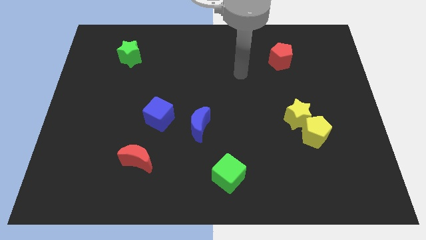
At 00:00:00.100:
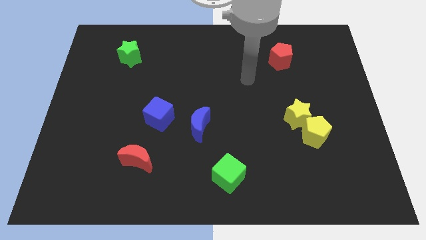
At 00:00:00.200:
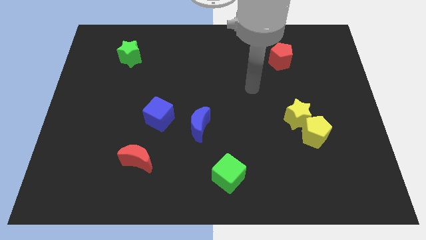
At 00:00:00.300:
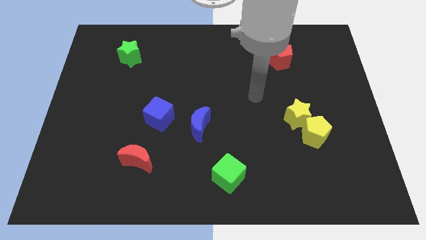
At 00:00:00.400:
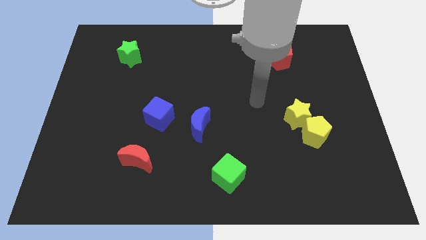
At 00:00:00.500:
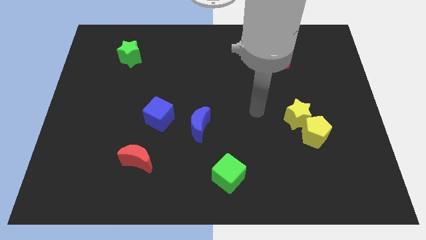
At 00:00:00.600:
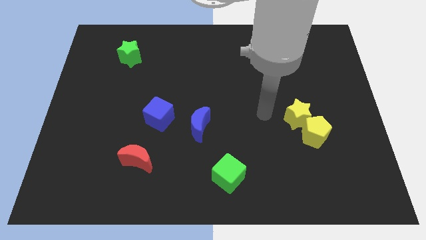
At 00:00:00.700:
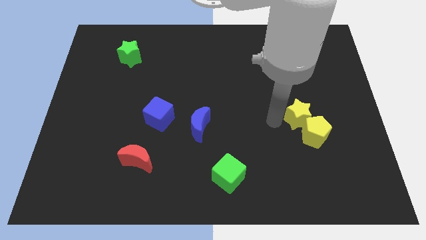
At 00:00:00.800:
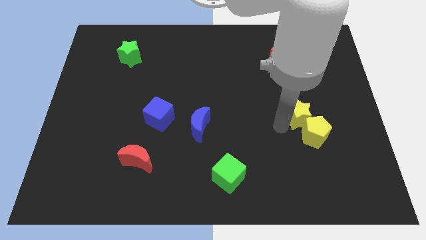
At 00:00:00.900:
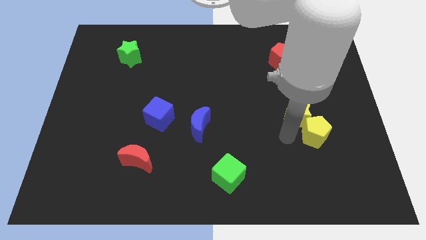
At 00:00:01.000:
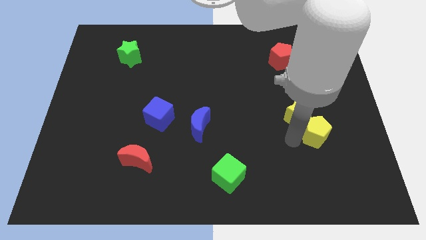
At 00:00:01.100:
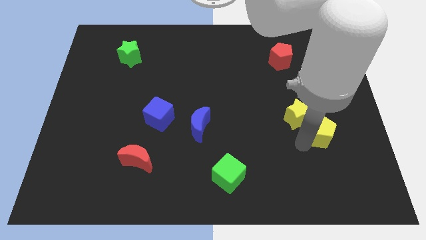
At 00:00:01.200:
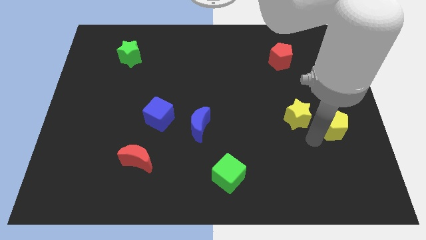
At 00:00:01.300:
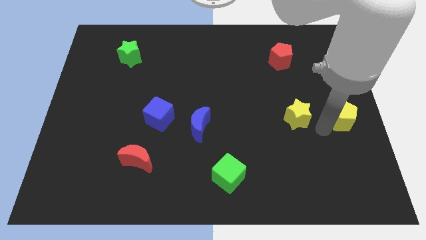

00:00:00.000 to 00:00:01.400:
pull the yellow star apart from the yellow pentagon

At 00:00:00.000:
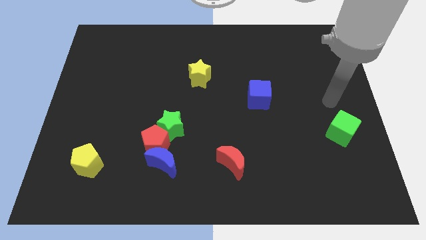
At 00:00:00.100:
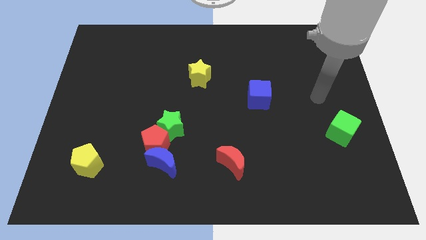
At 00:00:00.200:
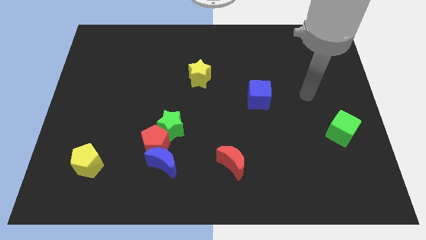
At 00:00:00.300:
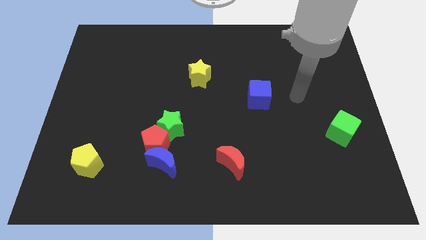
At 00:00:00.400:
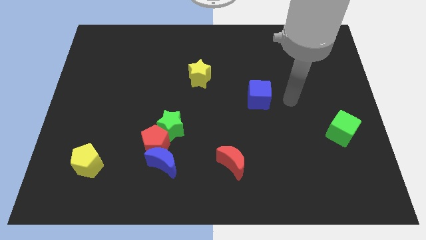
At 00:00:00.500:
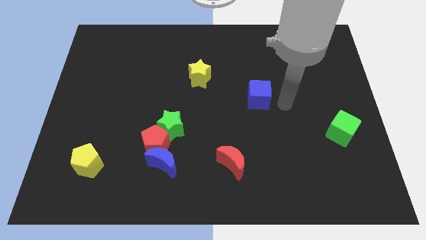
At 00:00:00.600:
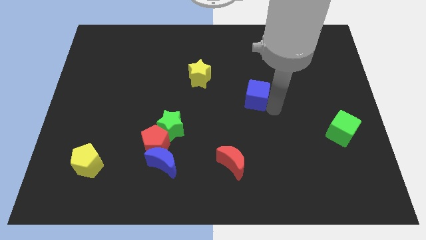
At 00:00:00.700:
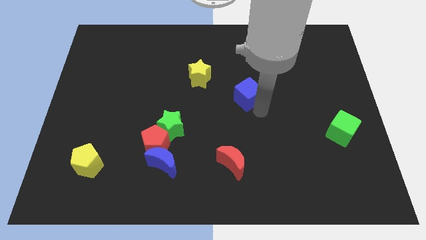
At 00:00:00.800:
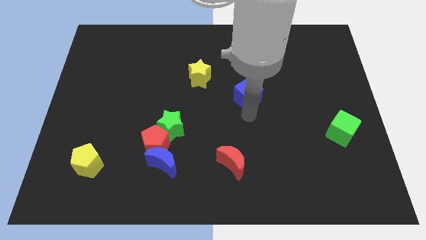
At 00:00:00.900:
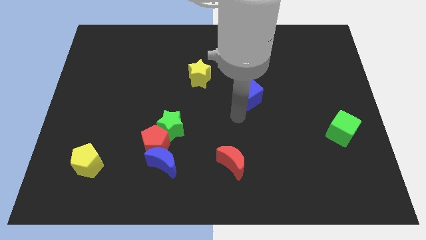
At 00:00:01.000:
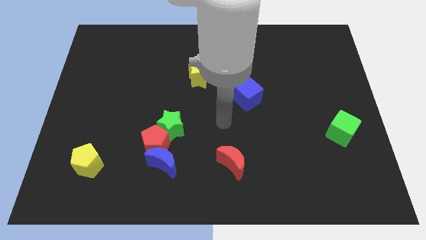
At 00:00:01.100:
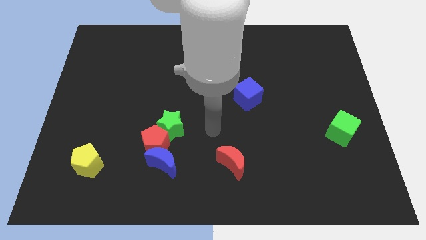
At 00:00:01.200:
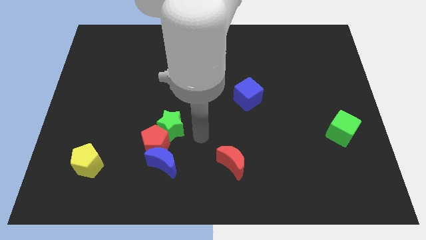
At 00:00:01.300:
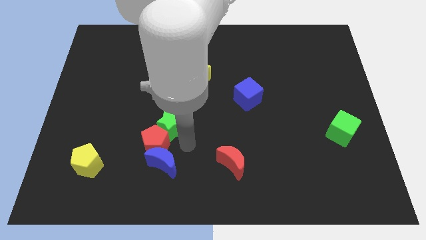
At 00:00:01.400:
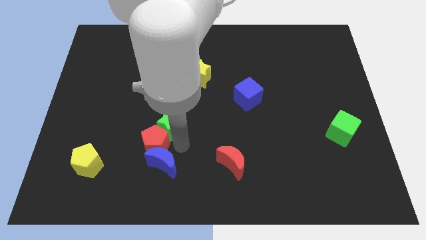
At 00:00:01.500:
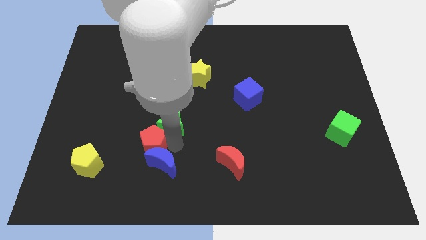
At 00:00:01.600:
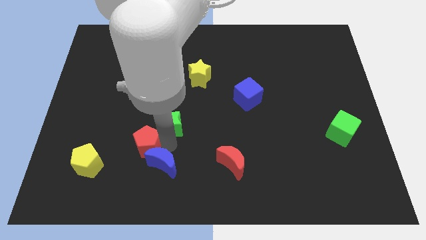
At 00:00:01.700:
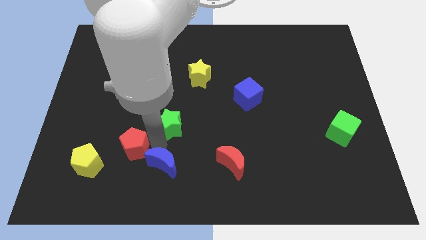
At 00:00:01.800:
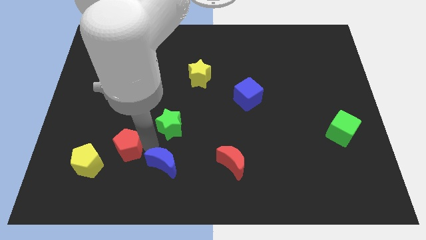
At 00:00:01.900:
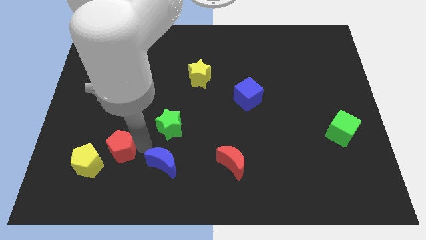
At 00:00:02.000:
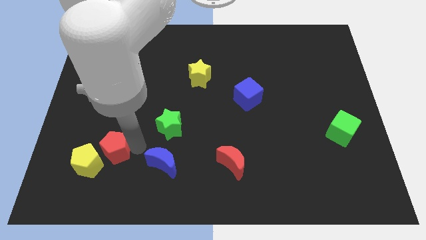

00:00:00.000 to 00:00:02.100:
pull the red pentagon apart from the blue moon and green star

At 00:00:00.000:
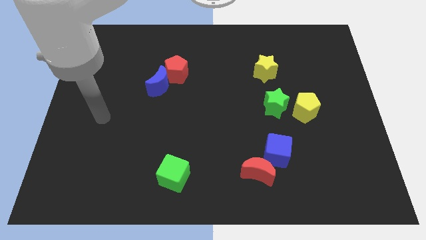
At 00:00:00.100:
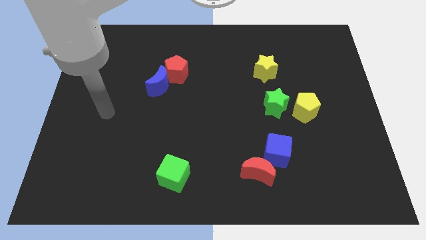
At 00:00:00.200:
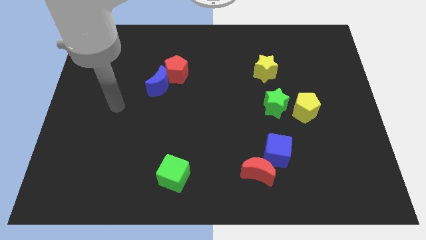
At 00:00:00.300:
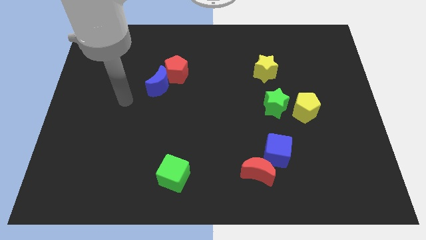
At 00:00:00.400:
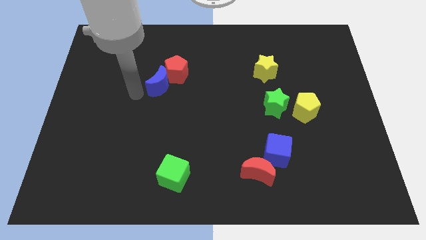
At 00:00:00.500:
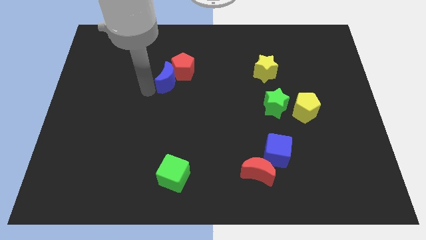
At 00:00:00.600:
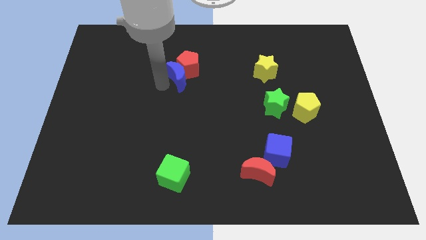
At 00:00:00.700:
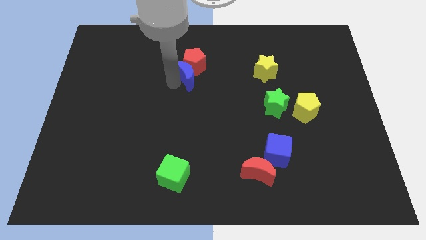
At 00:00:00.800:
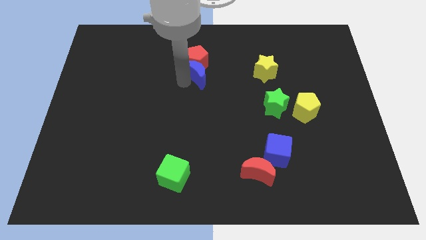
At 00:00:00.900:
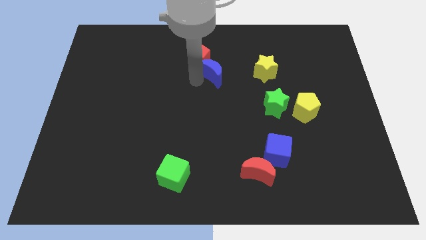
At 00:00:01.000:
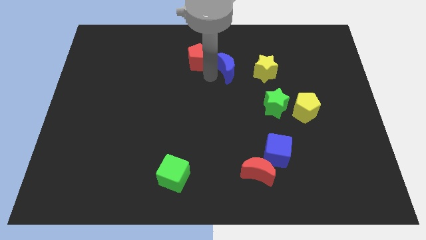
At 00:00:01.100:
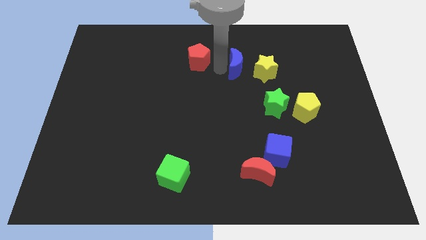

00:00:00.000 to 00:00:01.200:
pull the red pentagon apart from the blue moon

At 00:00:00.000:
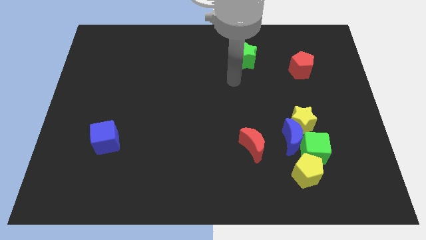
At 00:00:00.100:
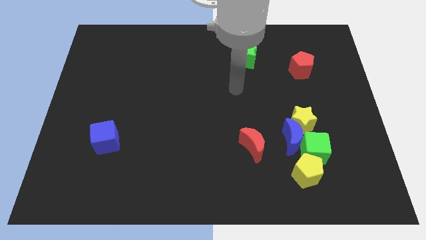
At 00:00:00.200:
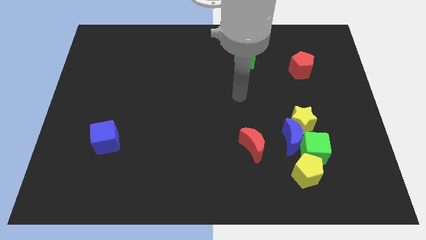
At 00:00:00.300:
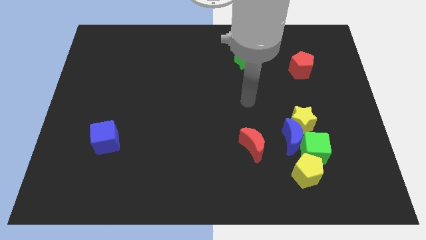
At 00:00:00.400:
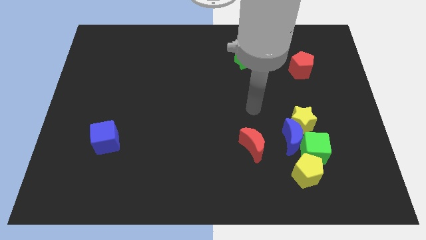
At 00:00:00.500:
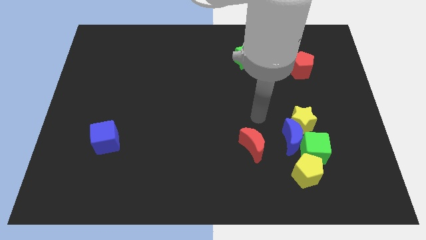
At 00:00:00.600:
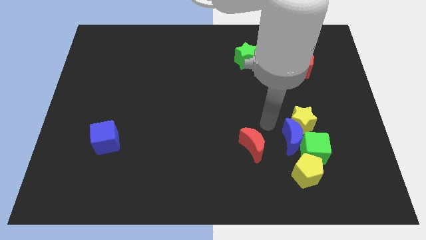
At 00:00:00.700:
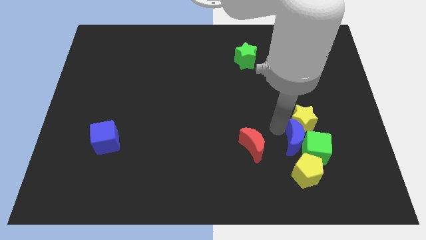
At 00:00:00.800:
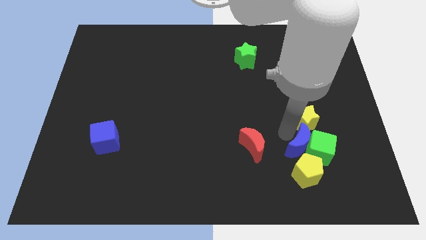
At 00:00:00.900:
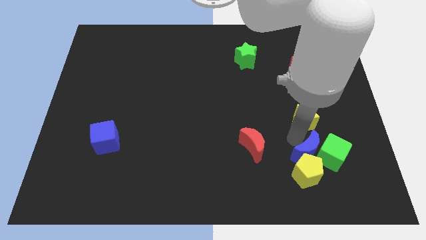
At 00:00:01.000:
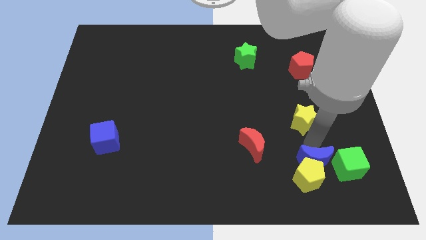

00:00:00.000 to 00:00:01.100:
move the yellow star away from the blue moon and green cube

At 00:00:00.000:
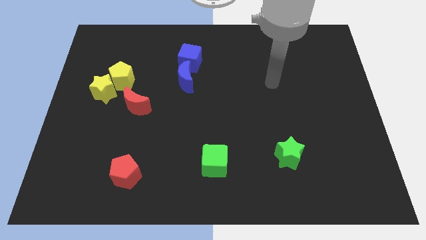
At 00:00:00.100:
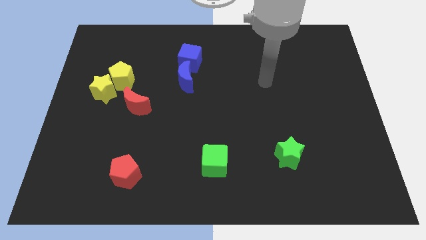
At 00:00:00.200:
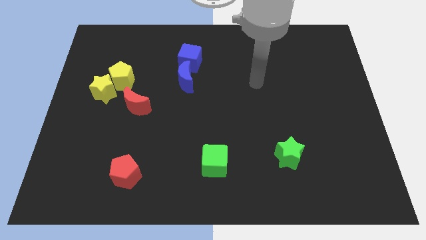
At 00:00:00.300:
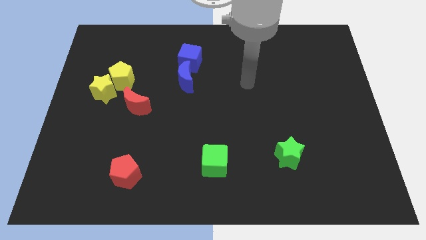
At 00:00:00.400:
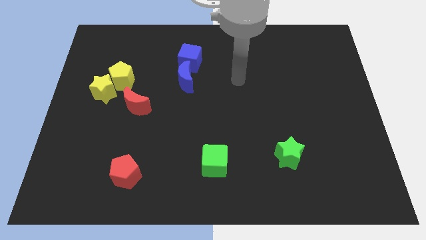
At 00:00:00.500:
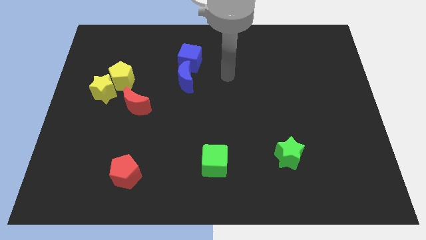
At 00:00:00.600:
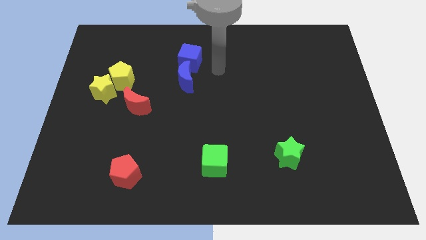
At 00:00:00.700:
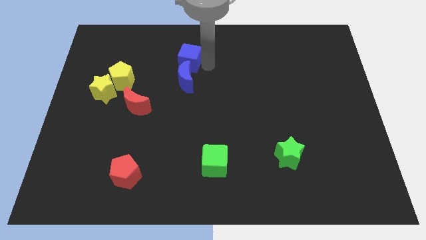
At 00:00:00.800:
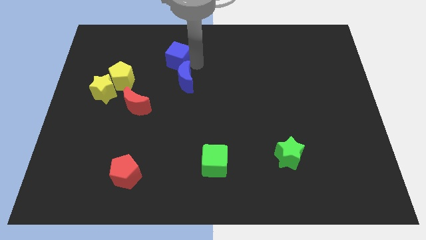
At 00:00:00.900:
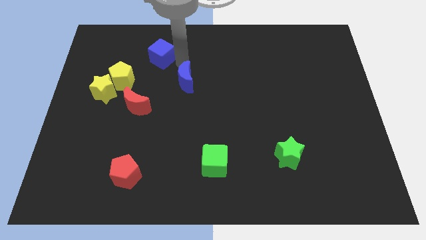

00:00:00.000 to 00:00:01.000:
pull the blue moon apart from the blue cube

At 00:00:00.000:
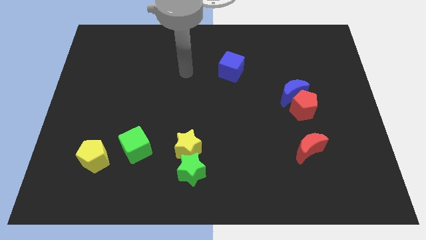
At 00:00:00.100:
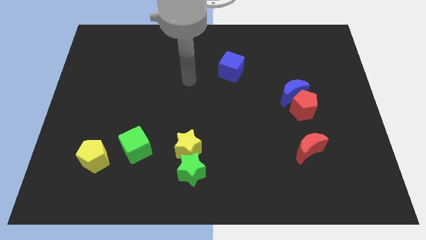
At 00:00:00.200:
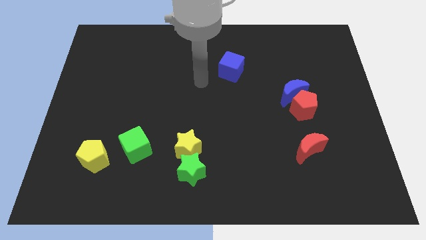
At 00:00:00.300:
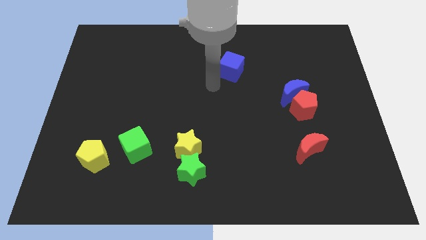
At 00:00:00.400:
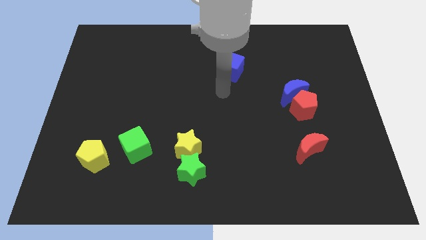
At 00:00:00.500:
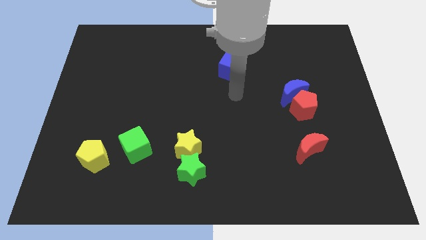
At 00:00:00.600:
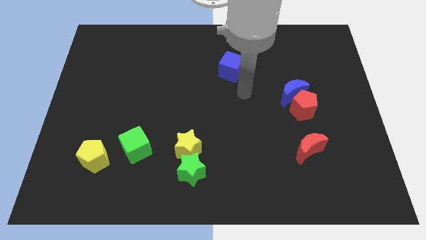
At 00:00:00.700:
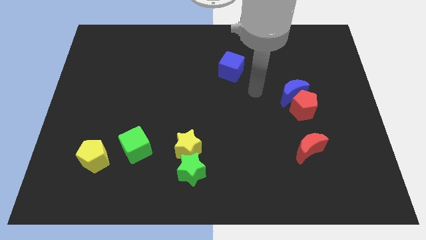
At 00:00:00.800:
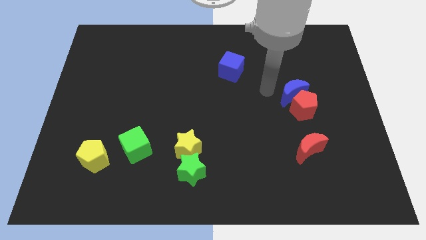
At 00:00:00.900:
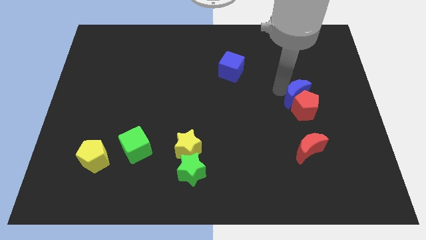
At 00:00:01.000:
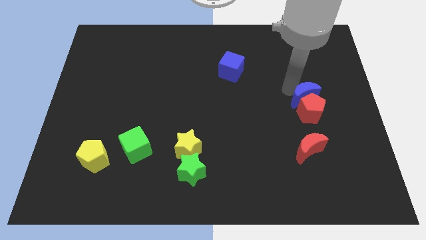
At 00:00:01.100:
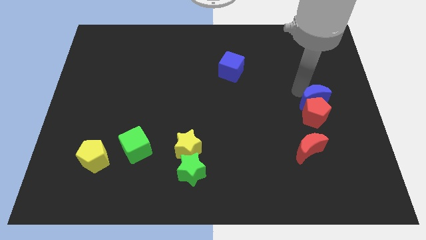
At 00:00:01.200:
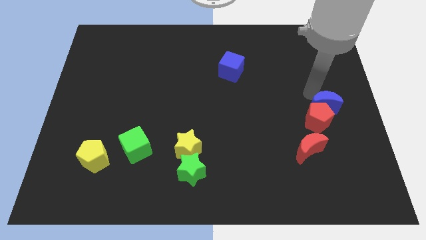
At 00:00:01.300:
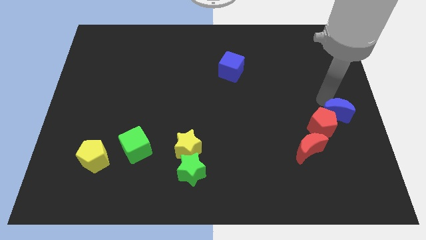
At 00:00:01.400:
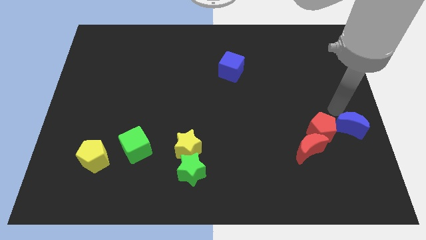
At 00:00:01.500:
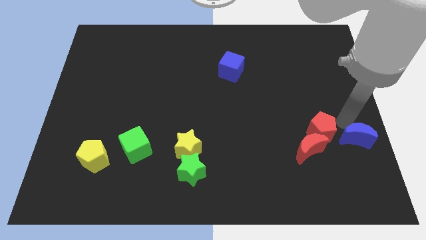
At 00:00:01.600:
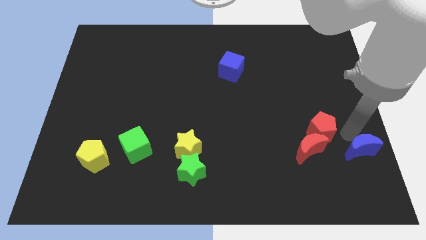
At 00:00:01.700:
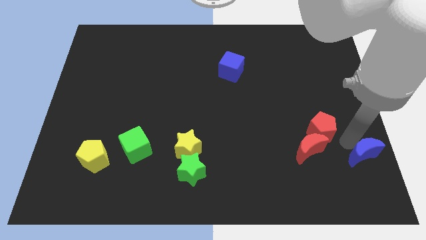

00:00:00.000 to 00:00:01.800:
move the red pentagon away from the blue moon

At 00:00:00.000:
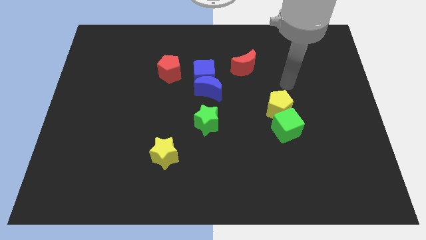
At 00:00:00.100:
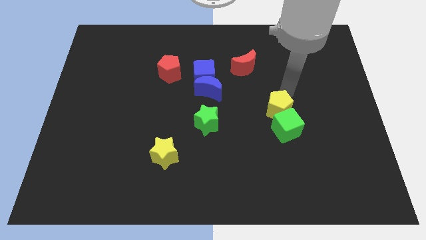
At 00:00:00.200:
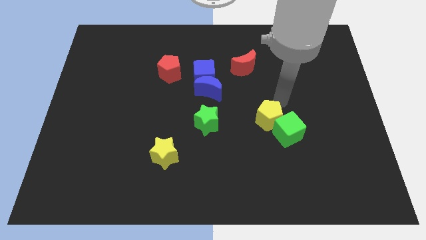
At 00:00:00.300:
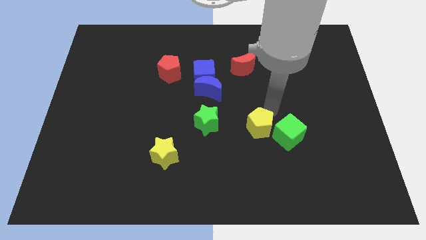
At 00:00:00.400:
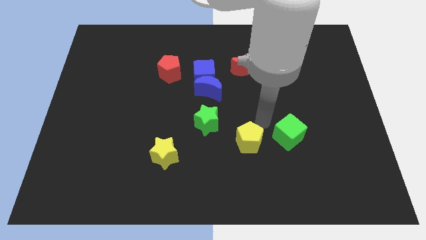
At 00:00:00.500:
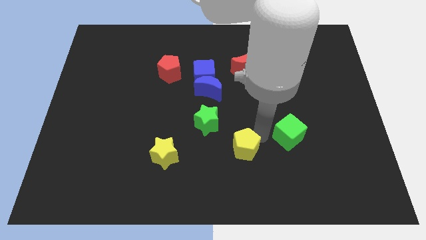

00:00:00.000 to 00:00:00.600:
pull the green cube apart from the yellow pentagon
